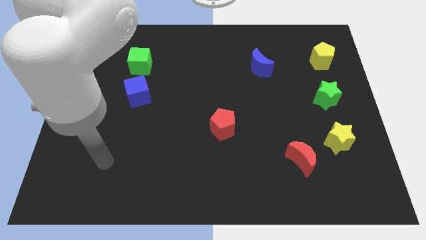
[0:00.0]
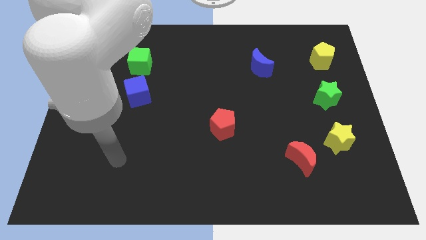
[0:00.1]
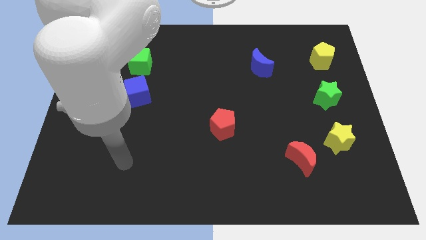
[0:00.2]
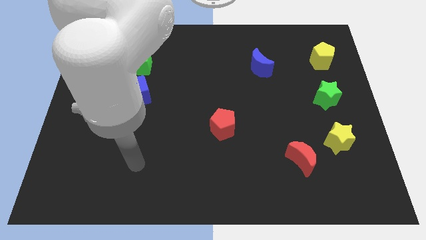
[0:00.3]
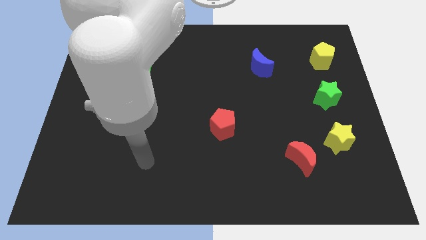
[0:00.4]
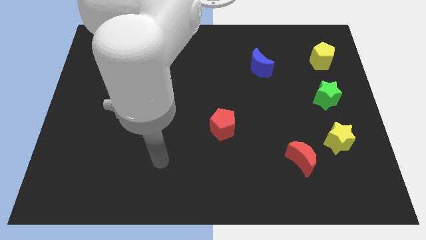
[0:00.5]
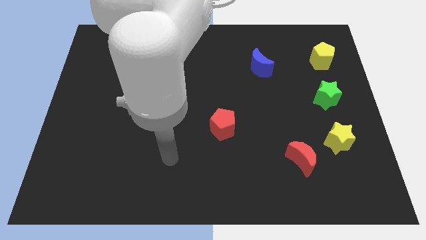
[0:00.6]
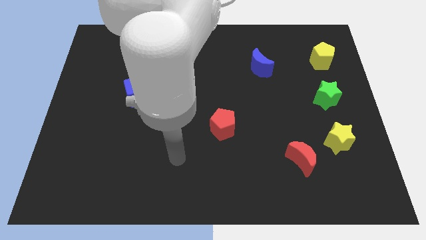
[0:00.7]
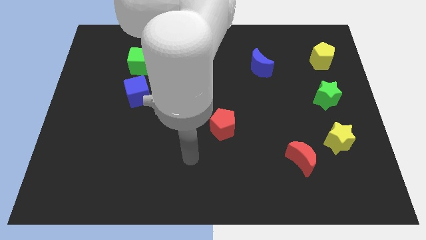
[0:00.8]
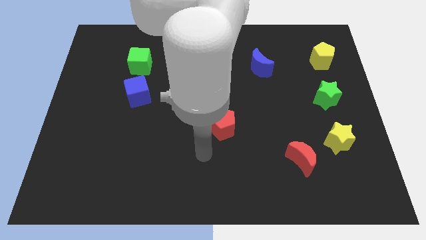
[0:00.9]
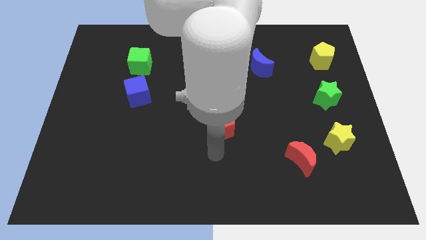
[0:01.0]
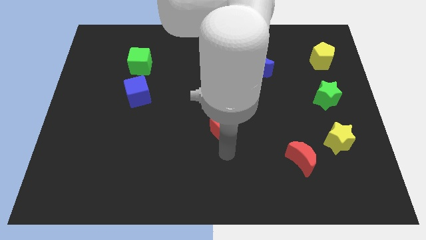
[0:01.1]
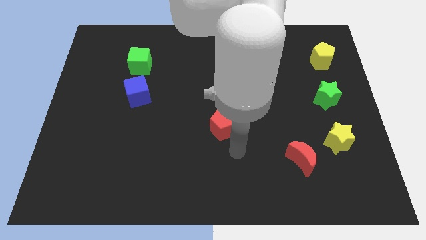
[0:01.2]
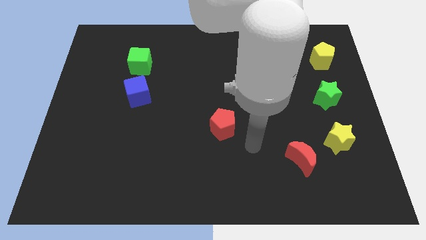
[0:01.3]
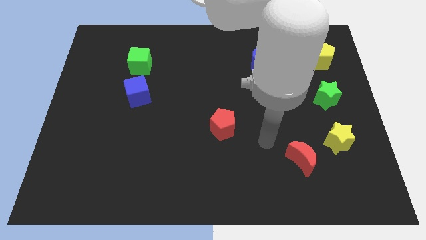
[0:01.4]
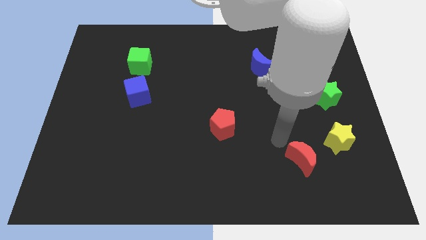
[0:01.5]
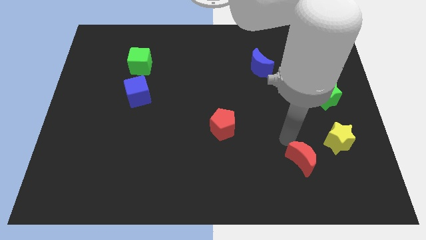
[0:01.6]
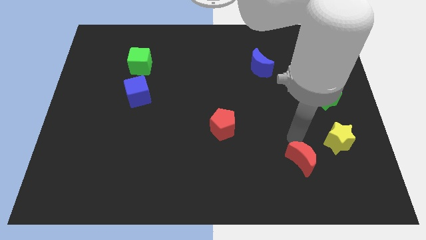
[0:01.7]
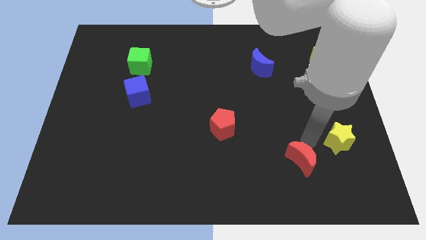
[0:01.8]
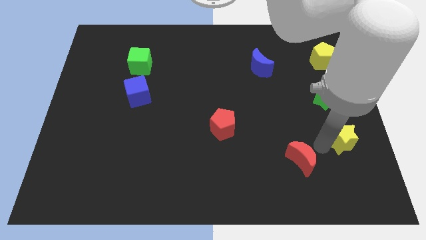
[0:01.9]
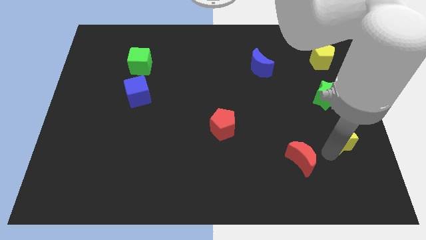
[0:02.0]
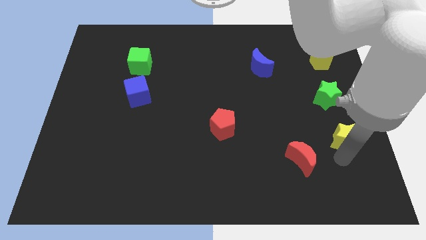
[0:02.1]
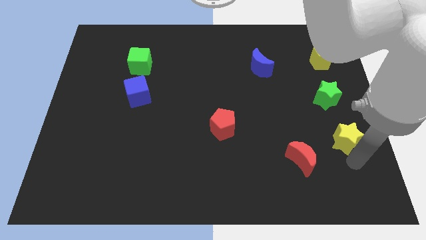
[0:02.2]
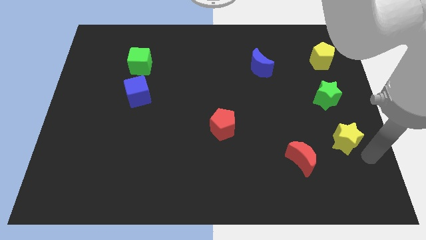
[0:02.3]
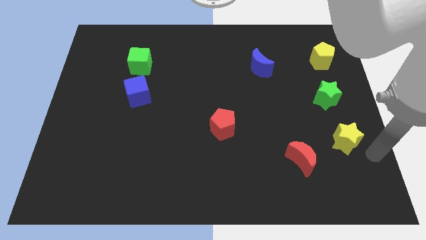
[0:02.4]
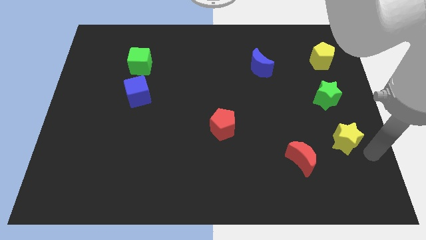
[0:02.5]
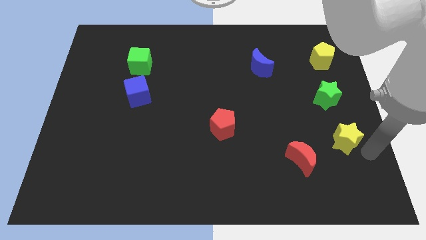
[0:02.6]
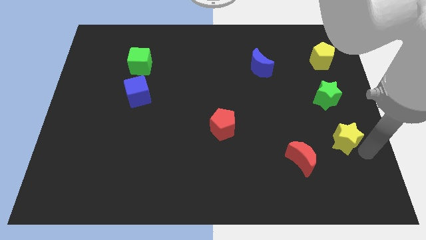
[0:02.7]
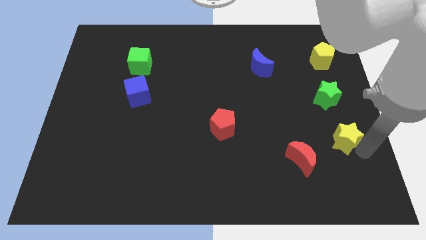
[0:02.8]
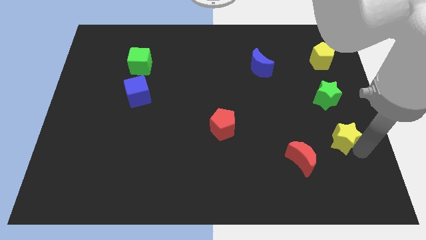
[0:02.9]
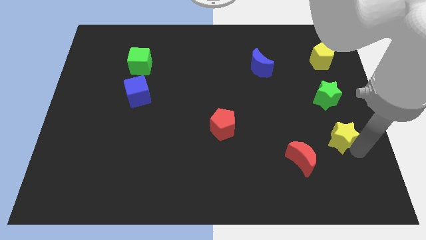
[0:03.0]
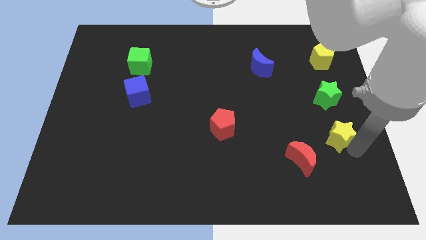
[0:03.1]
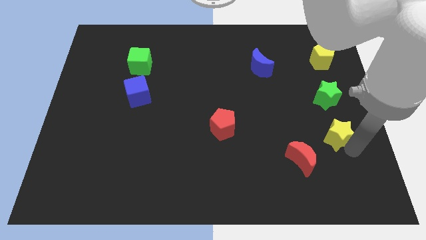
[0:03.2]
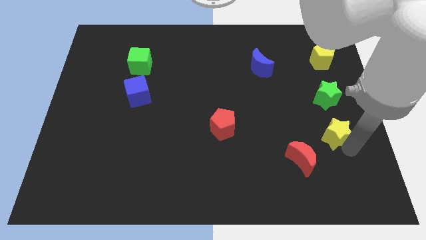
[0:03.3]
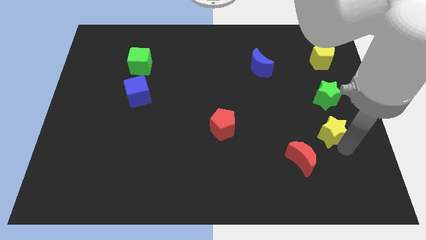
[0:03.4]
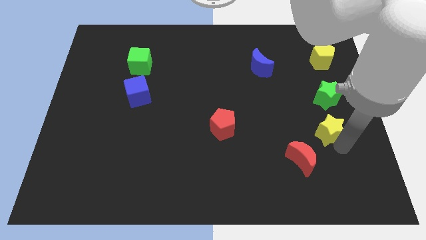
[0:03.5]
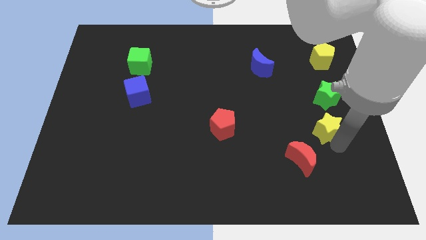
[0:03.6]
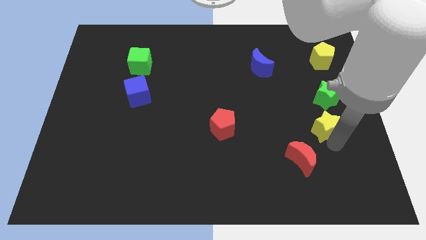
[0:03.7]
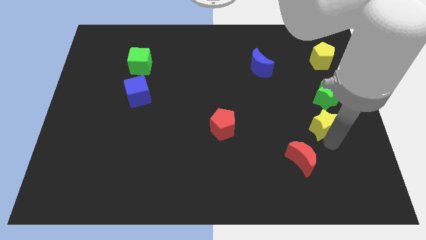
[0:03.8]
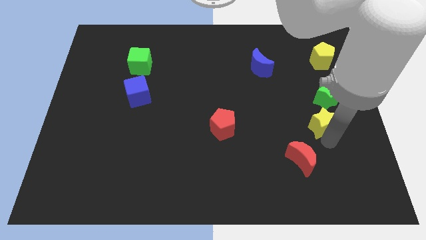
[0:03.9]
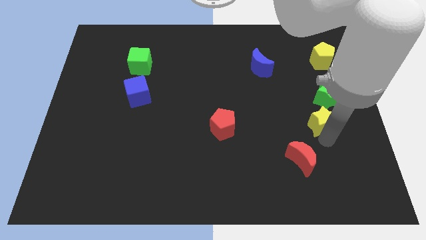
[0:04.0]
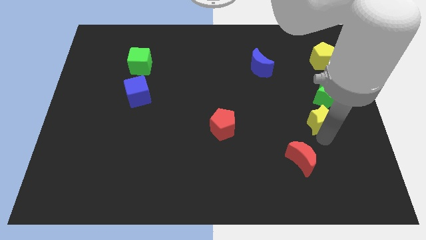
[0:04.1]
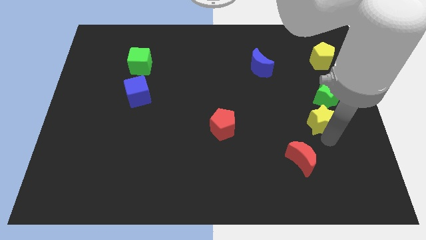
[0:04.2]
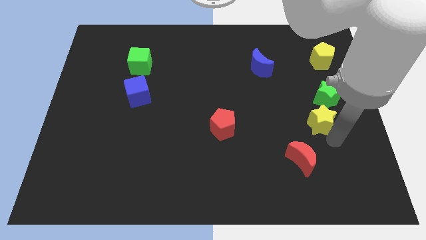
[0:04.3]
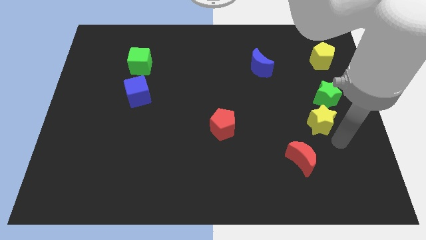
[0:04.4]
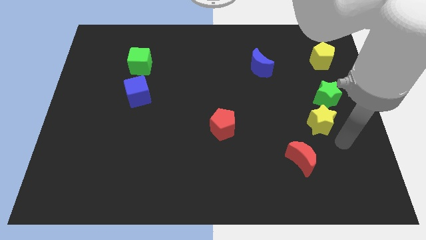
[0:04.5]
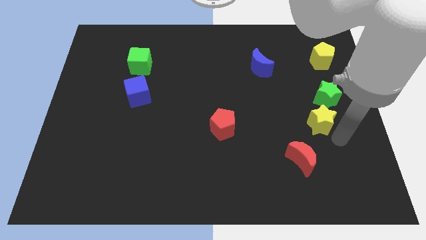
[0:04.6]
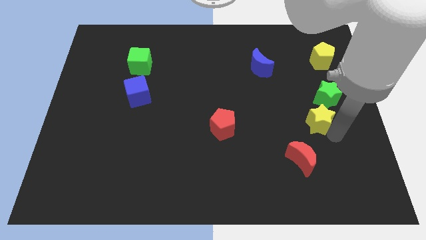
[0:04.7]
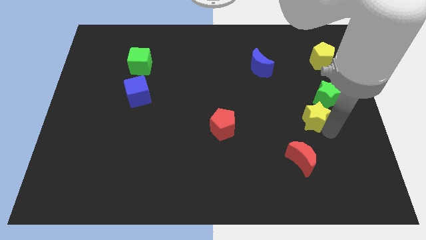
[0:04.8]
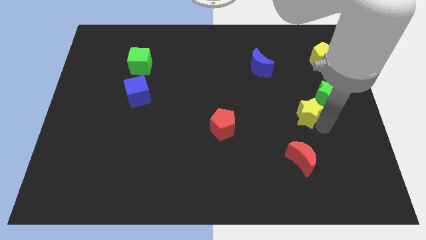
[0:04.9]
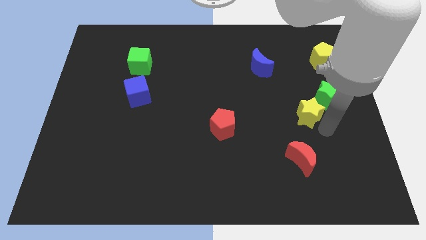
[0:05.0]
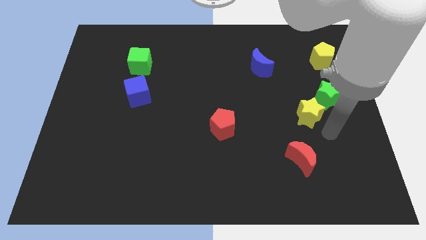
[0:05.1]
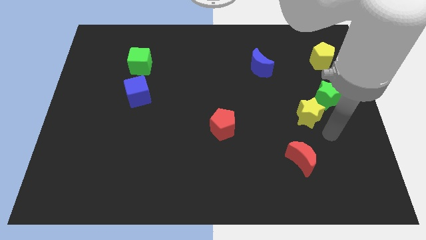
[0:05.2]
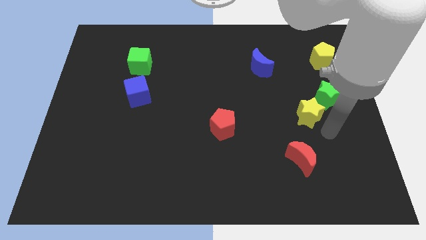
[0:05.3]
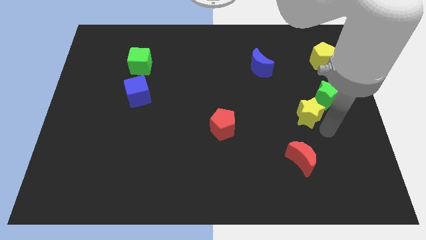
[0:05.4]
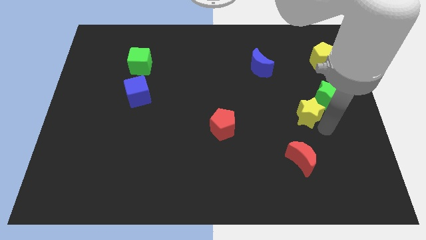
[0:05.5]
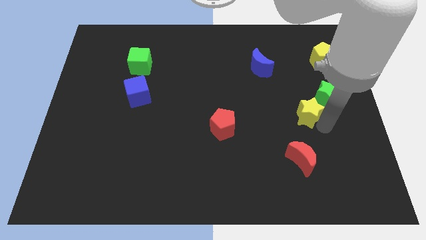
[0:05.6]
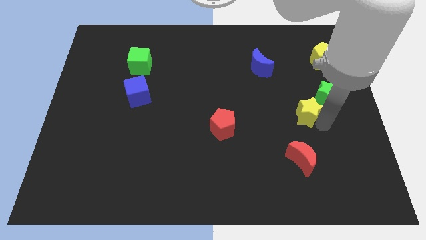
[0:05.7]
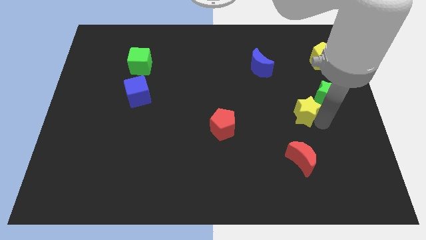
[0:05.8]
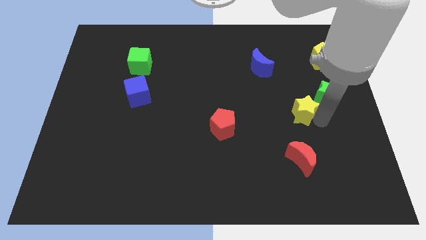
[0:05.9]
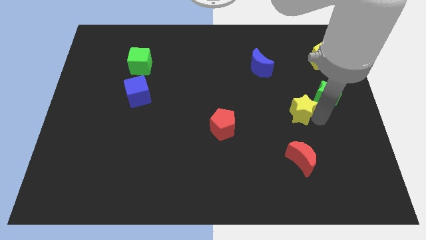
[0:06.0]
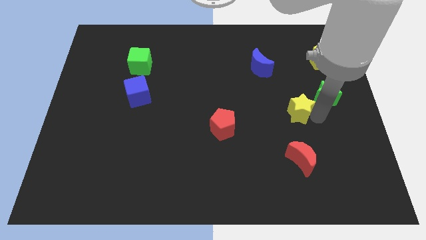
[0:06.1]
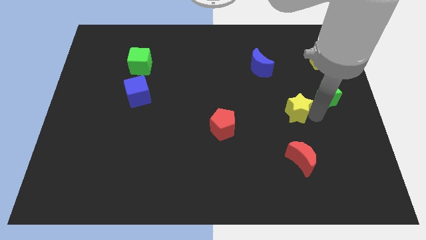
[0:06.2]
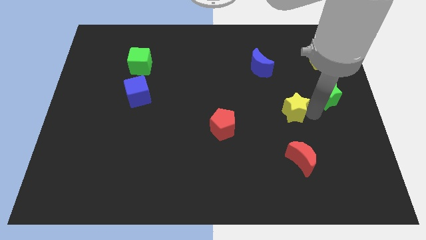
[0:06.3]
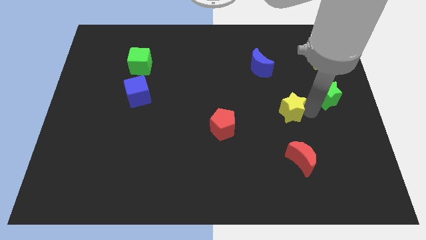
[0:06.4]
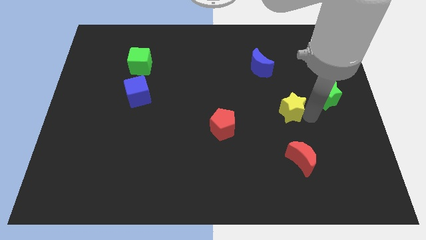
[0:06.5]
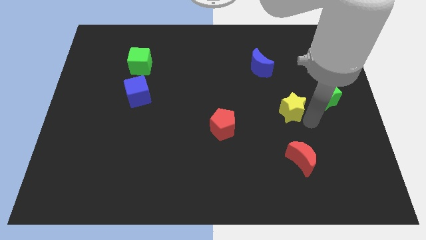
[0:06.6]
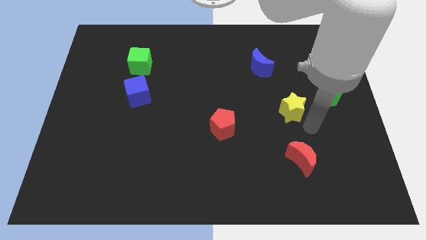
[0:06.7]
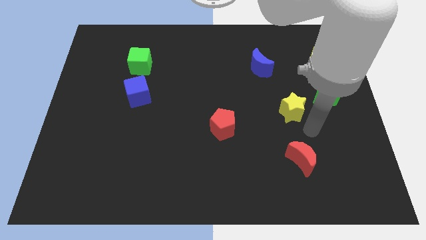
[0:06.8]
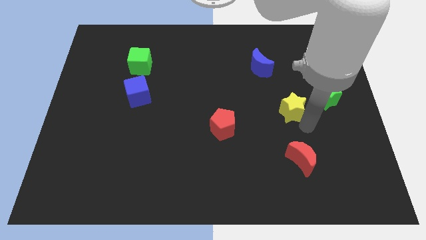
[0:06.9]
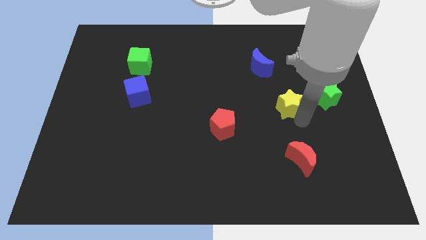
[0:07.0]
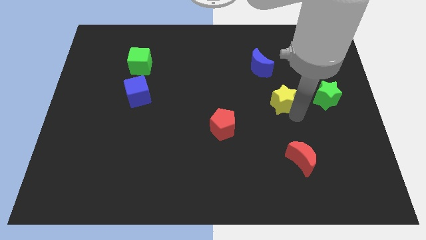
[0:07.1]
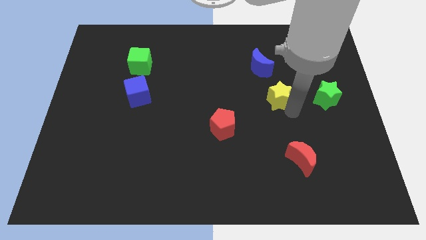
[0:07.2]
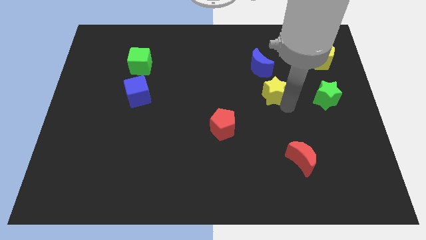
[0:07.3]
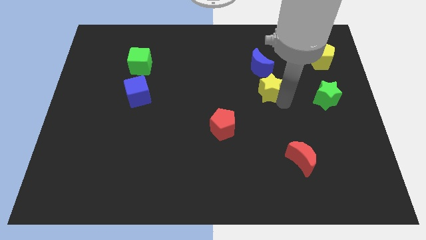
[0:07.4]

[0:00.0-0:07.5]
push the yellow star up and left

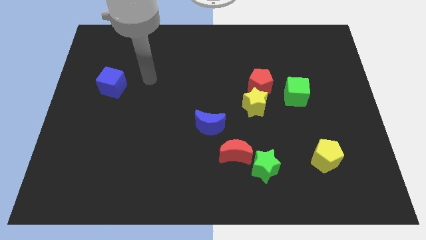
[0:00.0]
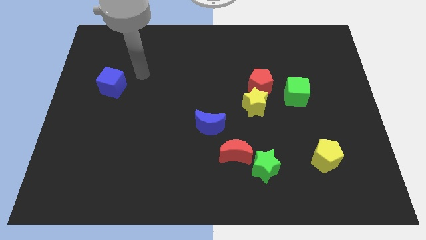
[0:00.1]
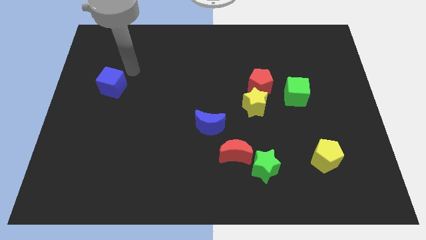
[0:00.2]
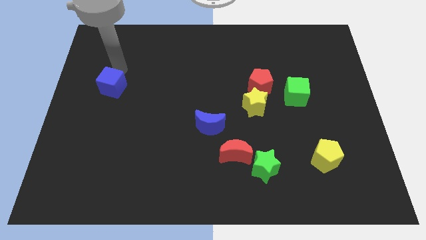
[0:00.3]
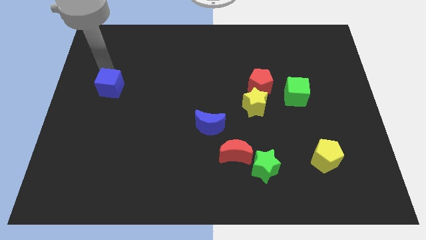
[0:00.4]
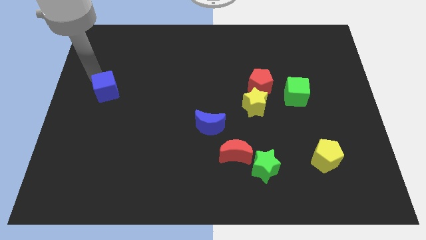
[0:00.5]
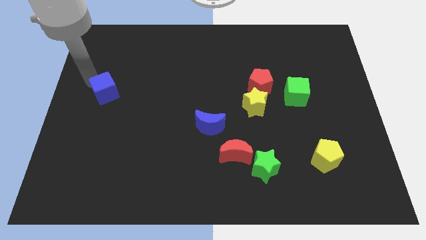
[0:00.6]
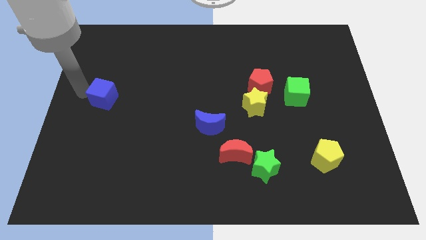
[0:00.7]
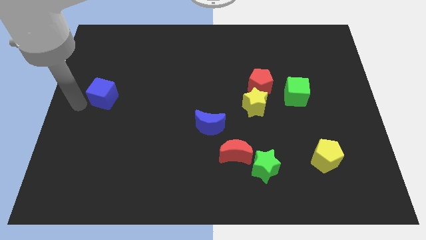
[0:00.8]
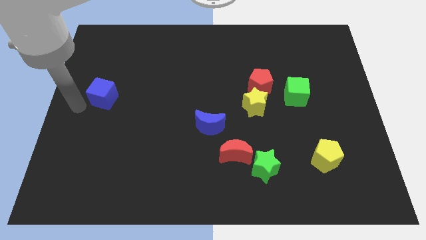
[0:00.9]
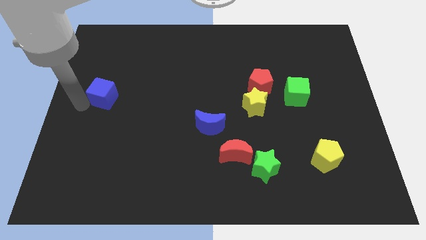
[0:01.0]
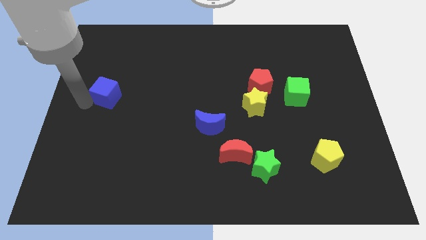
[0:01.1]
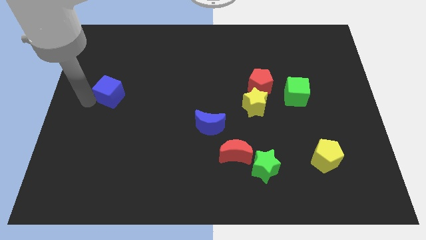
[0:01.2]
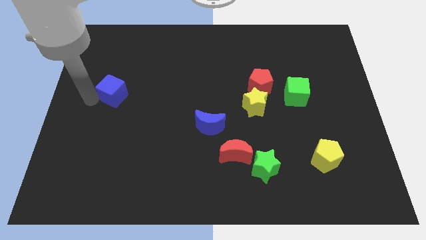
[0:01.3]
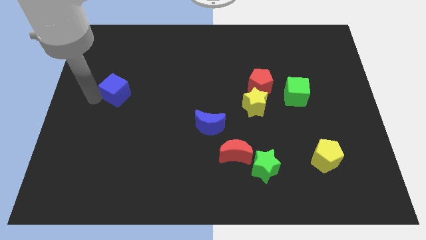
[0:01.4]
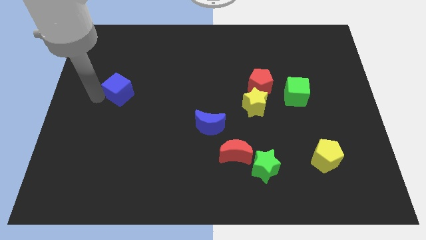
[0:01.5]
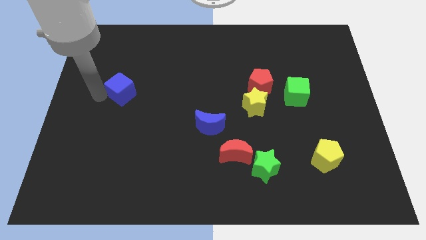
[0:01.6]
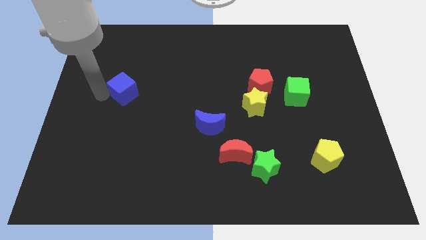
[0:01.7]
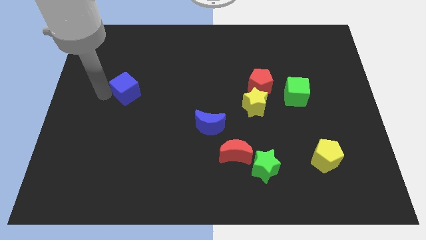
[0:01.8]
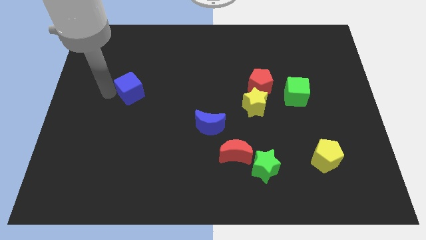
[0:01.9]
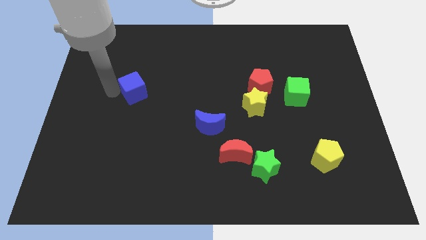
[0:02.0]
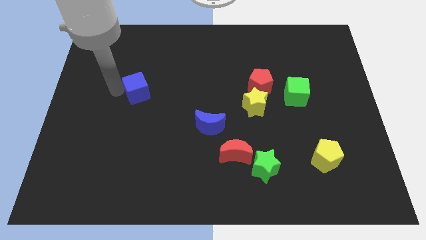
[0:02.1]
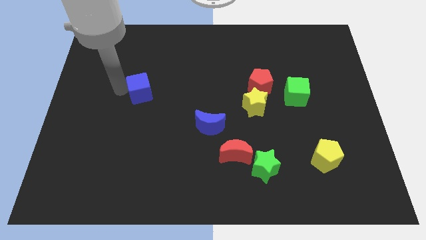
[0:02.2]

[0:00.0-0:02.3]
slightly move the blue cube to the right
